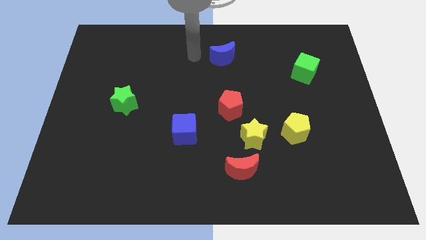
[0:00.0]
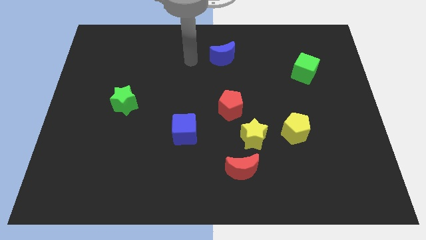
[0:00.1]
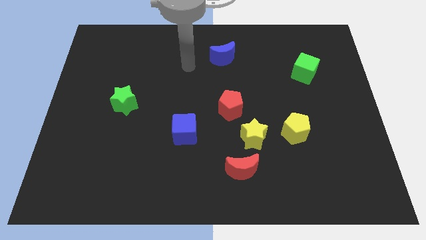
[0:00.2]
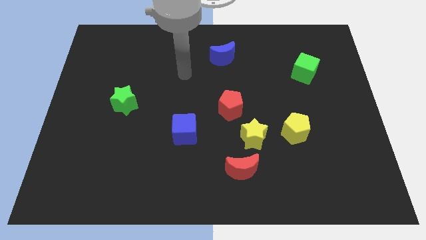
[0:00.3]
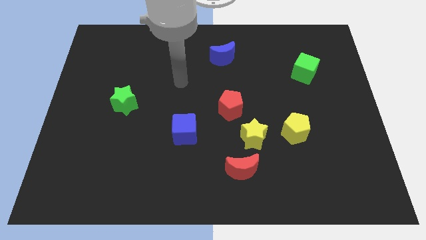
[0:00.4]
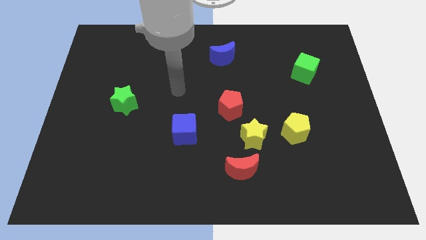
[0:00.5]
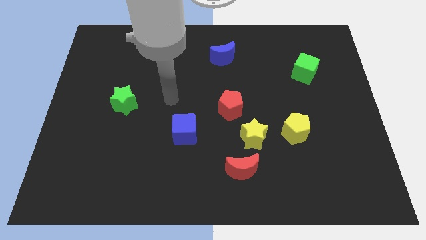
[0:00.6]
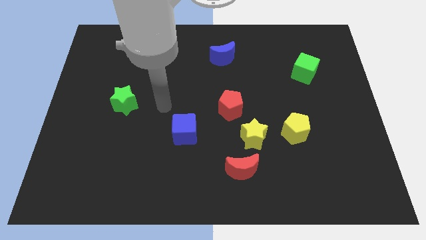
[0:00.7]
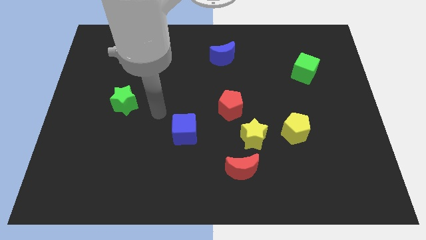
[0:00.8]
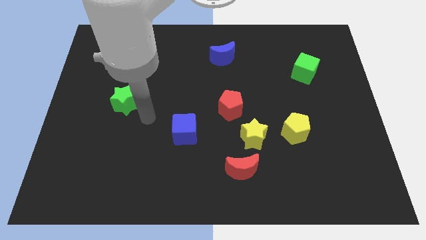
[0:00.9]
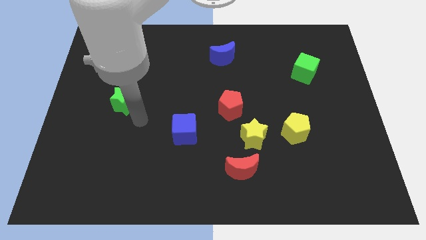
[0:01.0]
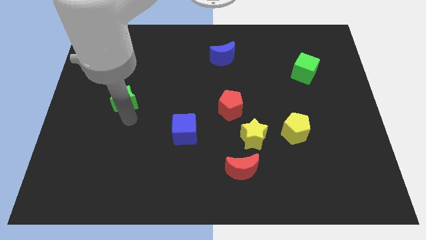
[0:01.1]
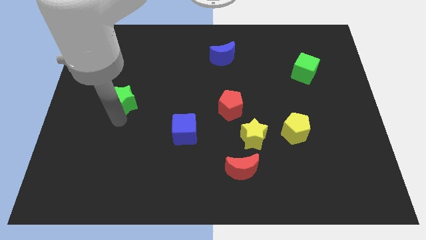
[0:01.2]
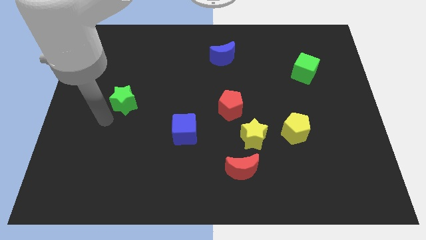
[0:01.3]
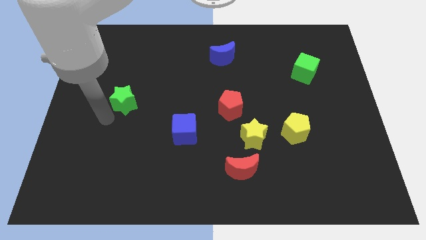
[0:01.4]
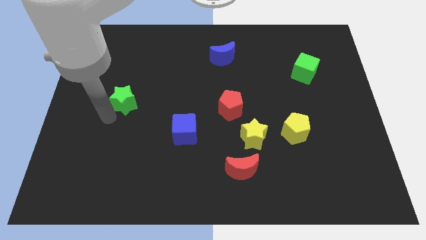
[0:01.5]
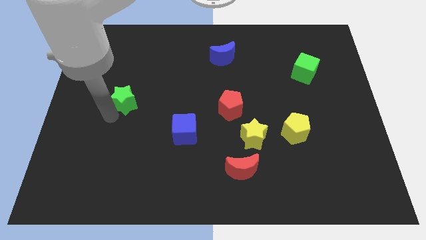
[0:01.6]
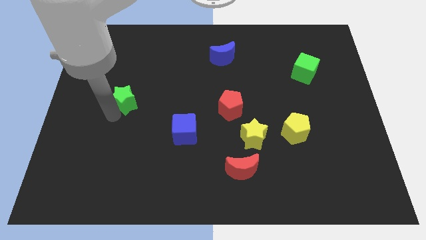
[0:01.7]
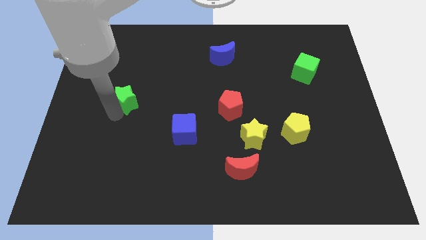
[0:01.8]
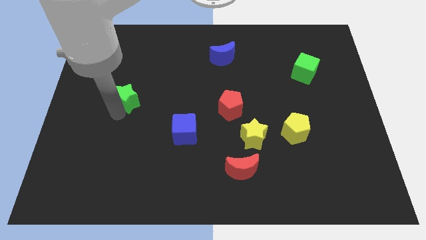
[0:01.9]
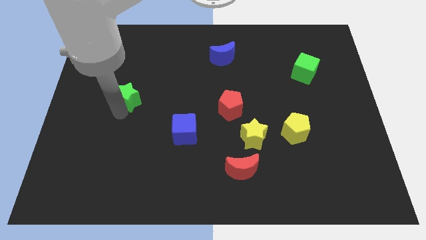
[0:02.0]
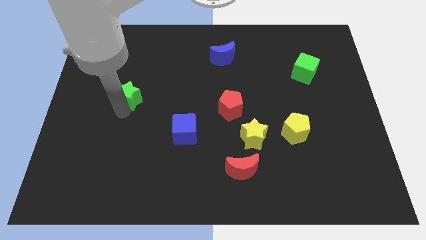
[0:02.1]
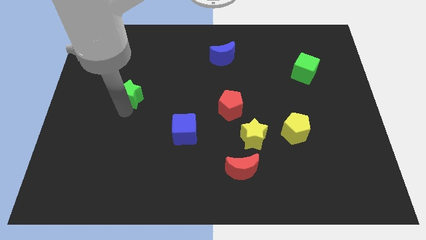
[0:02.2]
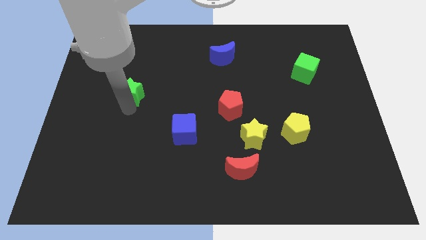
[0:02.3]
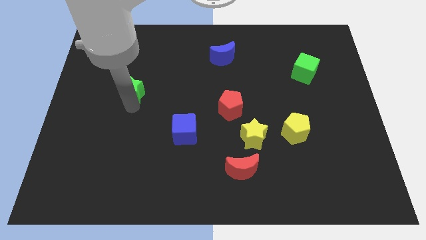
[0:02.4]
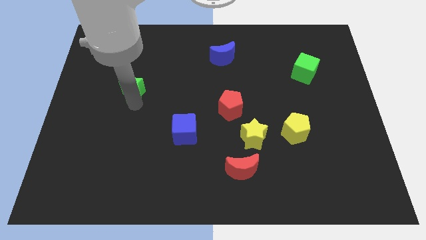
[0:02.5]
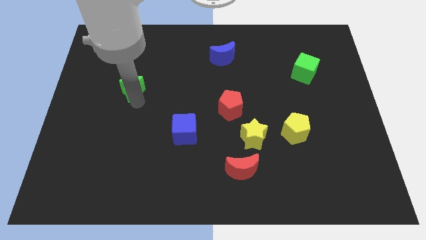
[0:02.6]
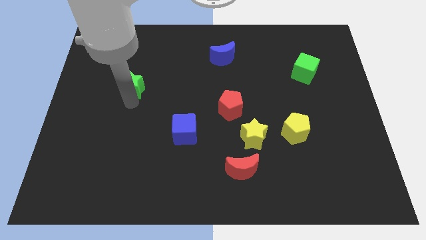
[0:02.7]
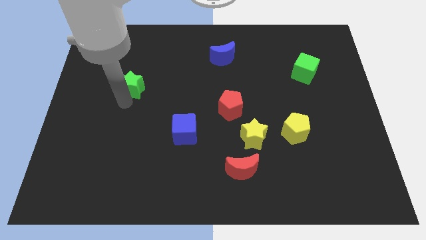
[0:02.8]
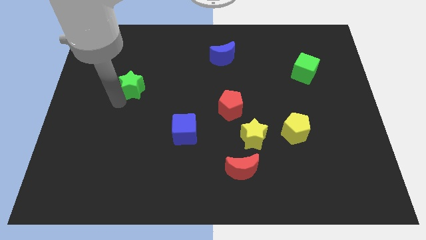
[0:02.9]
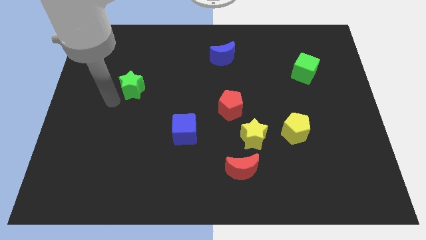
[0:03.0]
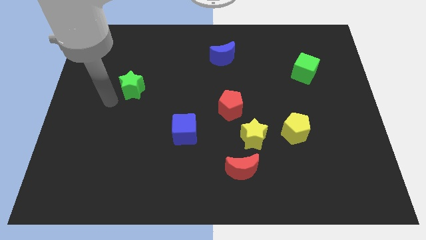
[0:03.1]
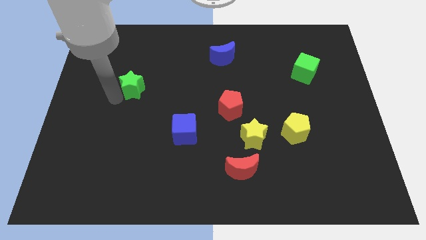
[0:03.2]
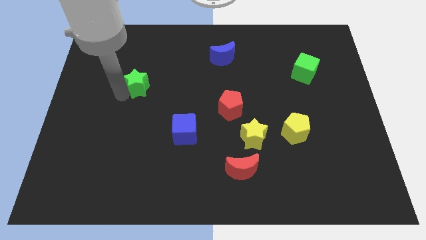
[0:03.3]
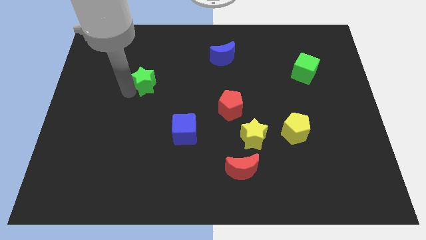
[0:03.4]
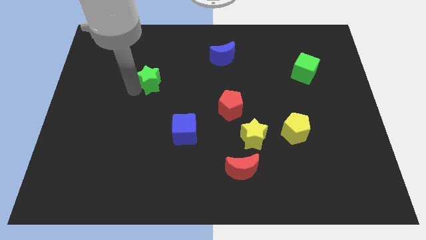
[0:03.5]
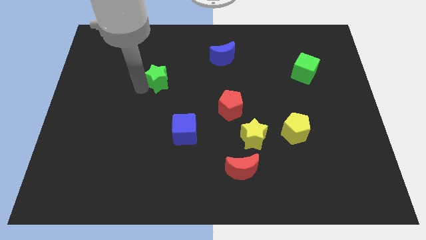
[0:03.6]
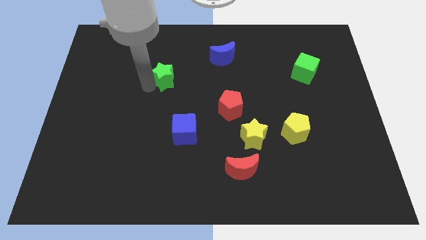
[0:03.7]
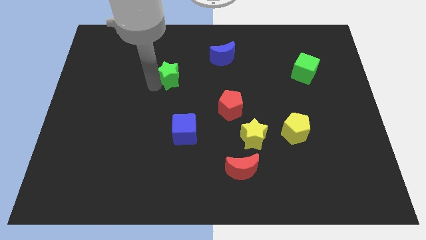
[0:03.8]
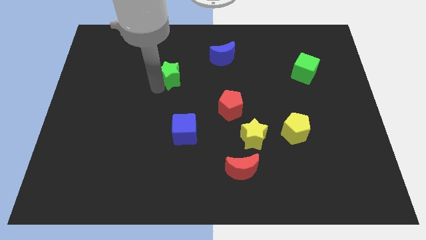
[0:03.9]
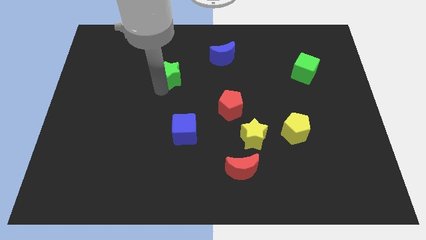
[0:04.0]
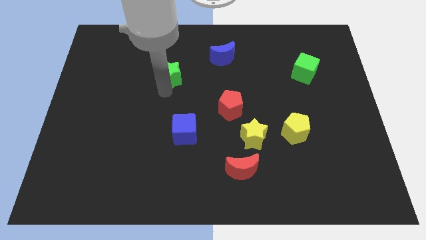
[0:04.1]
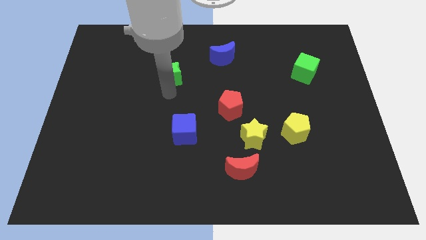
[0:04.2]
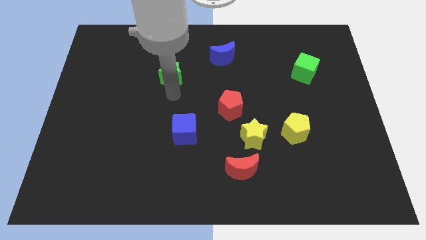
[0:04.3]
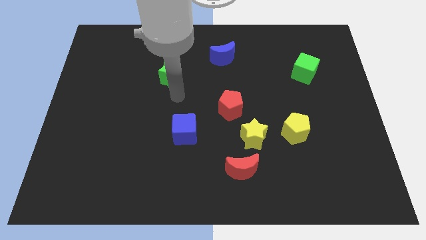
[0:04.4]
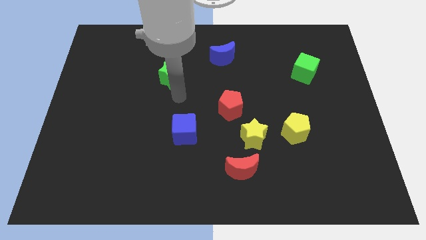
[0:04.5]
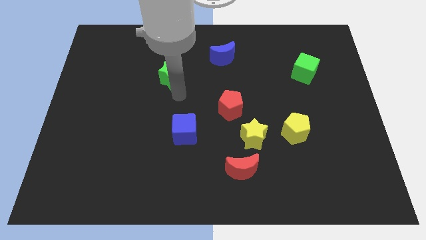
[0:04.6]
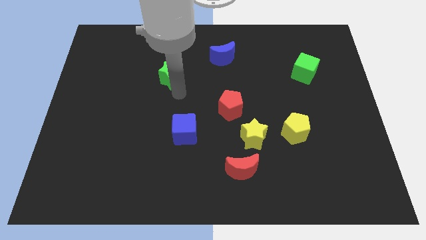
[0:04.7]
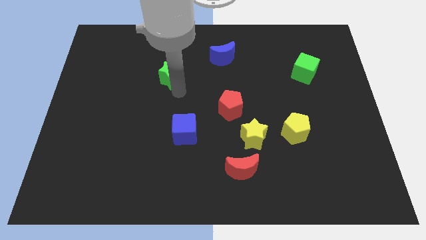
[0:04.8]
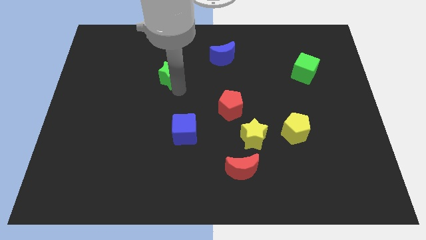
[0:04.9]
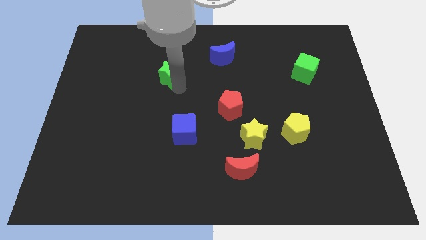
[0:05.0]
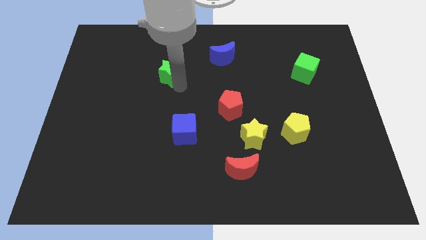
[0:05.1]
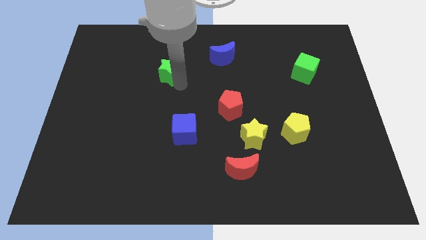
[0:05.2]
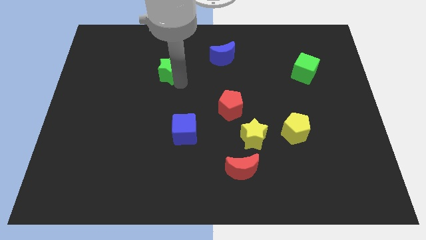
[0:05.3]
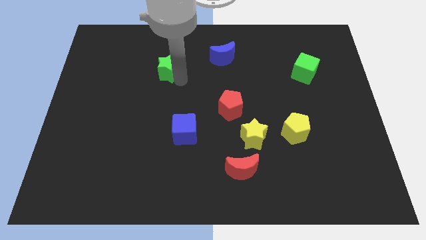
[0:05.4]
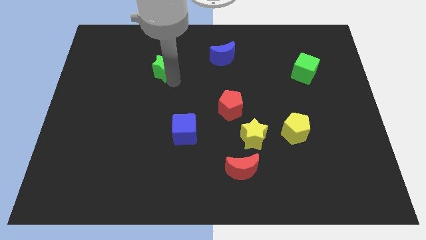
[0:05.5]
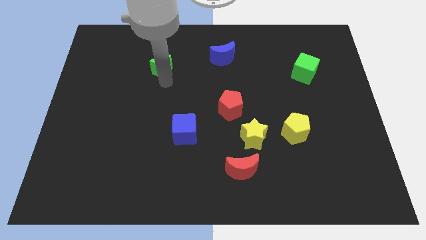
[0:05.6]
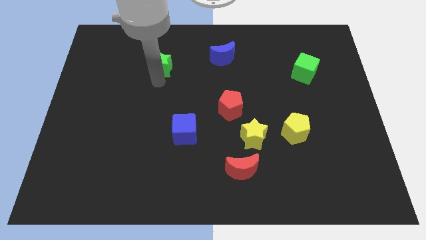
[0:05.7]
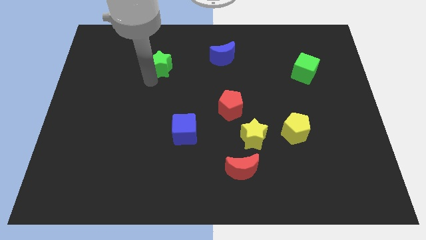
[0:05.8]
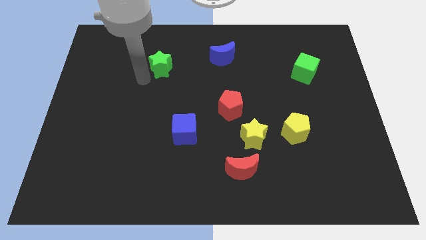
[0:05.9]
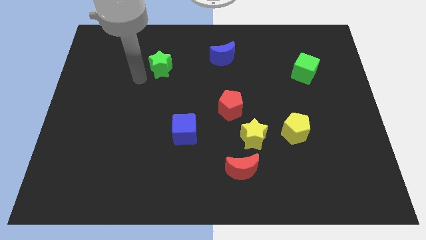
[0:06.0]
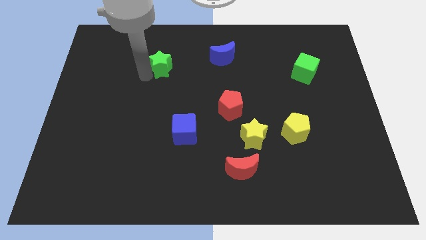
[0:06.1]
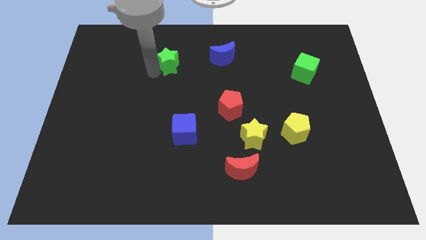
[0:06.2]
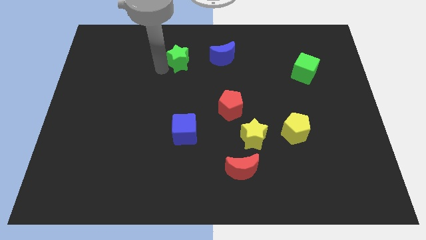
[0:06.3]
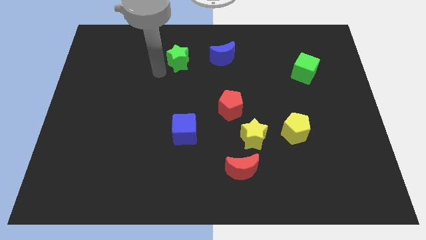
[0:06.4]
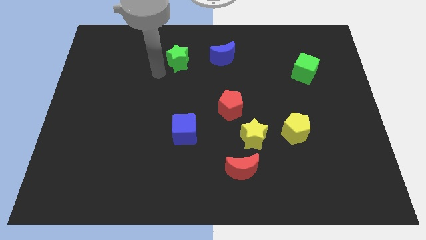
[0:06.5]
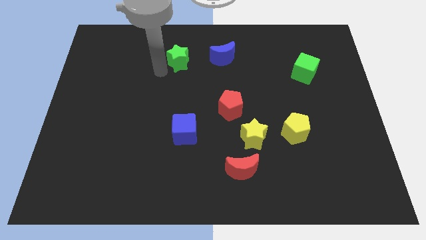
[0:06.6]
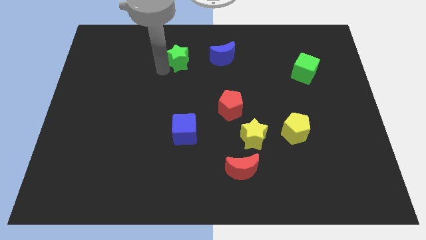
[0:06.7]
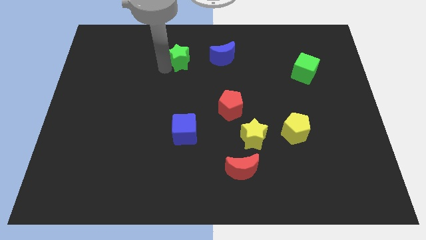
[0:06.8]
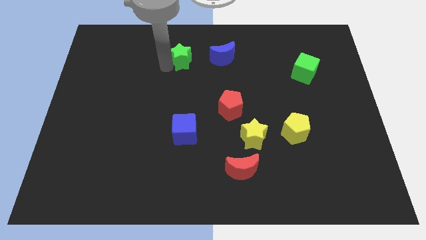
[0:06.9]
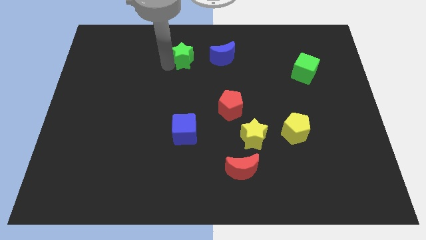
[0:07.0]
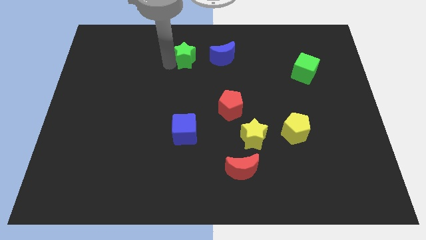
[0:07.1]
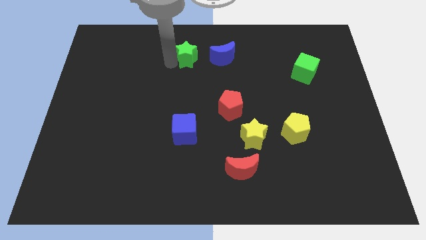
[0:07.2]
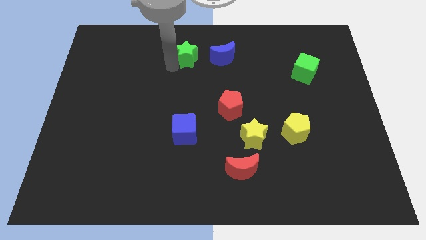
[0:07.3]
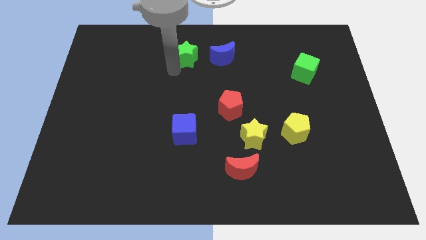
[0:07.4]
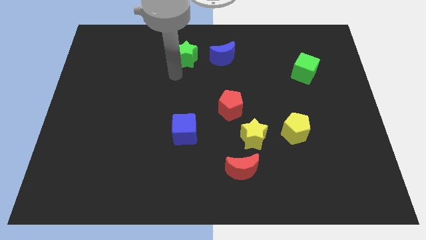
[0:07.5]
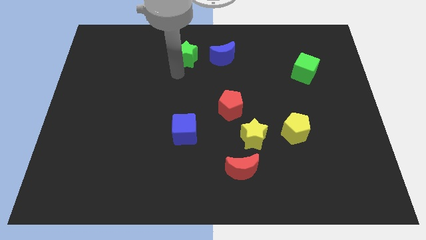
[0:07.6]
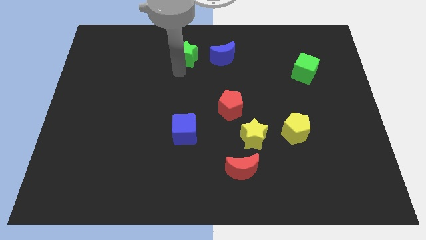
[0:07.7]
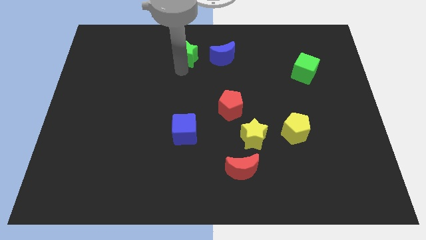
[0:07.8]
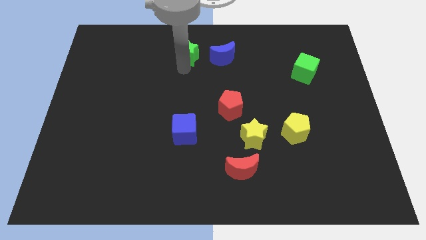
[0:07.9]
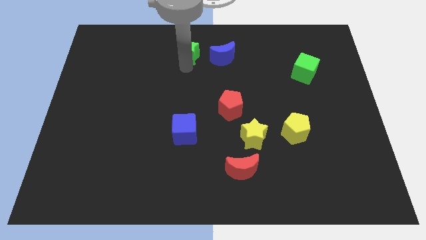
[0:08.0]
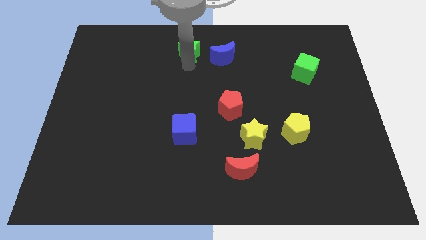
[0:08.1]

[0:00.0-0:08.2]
slide the green star to the top
